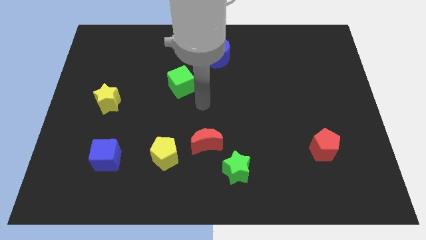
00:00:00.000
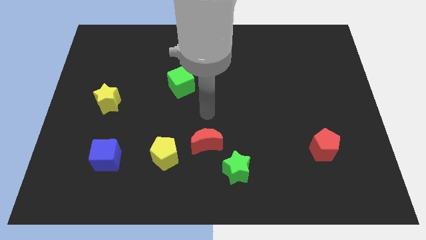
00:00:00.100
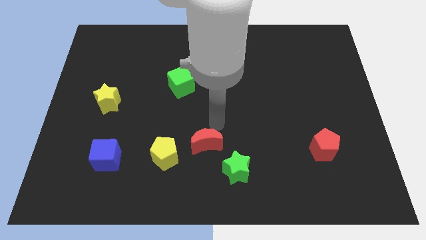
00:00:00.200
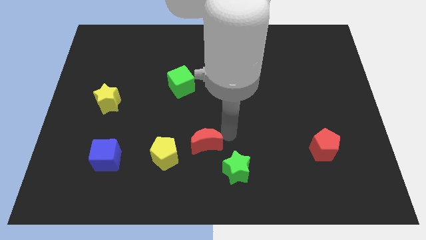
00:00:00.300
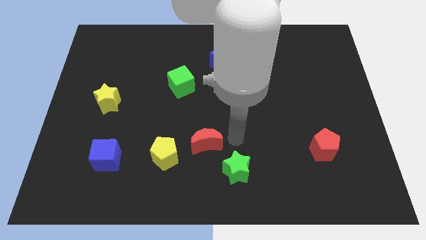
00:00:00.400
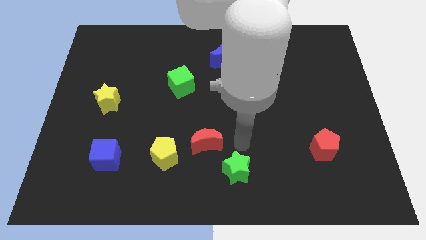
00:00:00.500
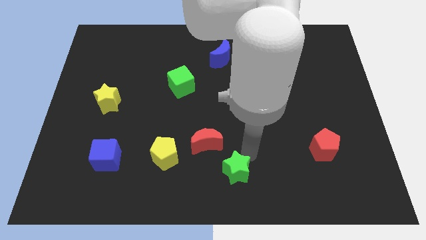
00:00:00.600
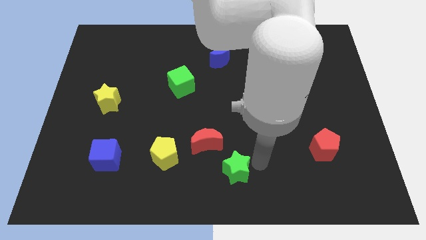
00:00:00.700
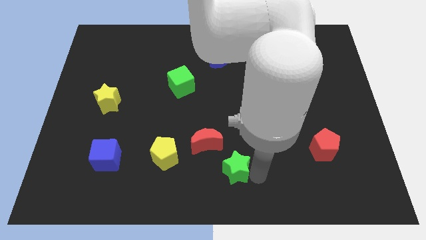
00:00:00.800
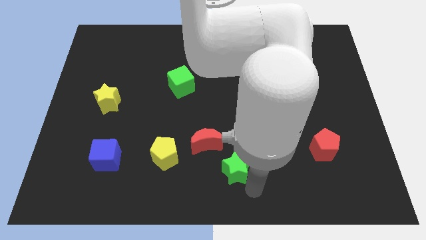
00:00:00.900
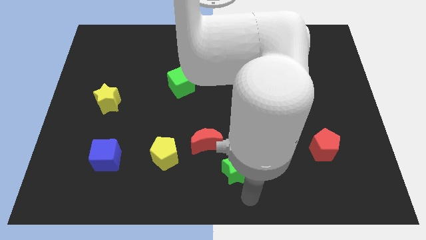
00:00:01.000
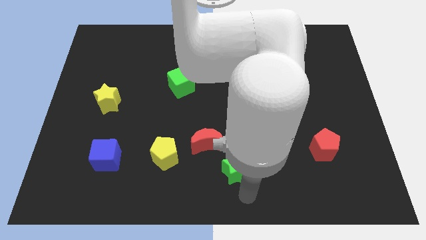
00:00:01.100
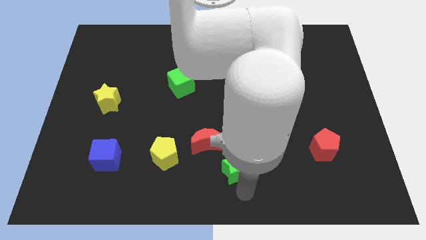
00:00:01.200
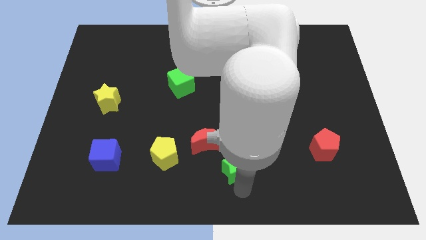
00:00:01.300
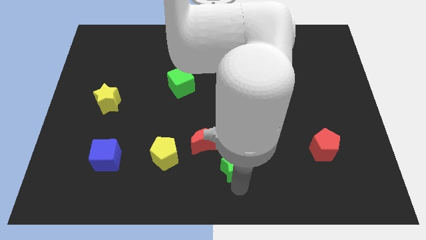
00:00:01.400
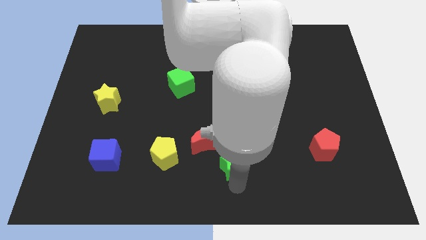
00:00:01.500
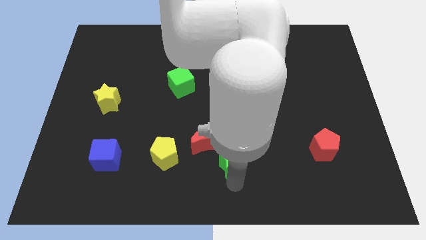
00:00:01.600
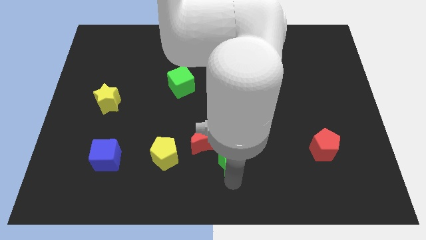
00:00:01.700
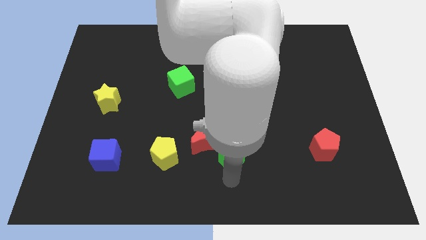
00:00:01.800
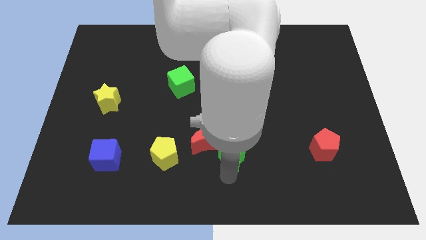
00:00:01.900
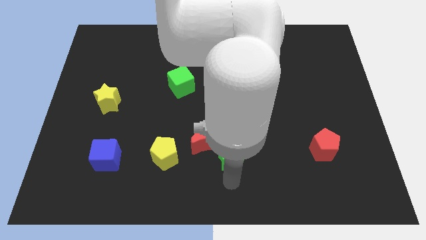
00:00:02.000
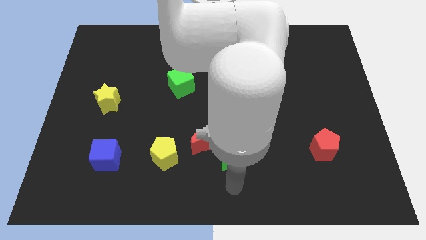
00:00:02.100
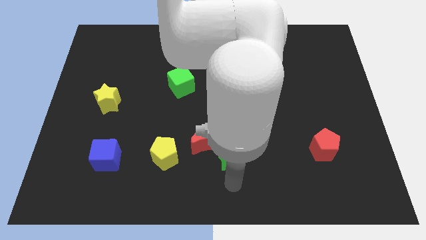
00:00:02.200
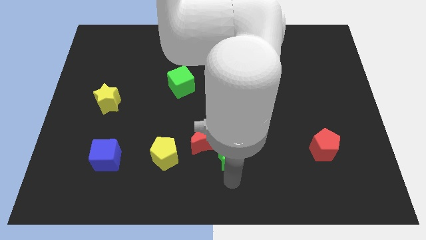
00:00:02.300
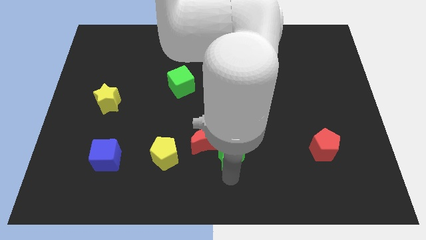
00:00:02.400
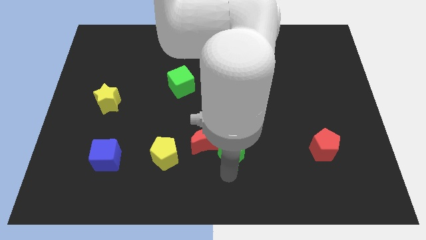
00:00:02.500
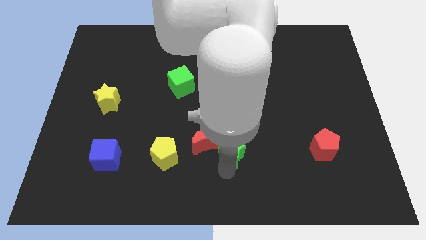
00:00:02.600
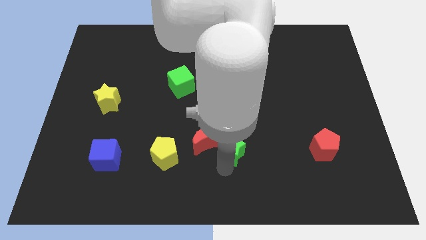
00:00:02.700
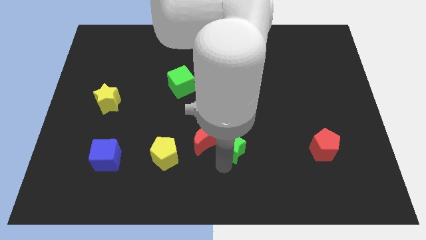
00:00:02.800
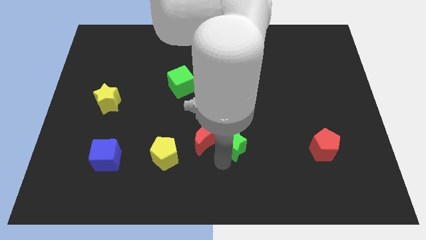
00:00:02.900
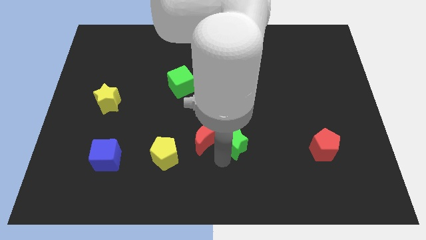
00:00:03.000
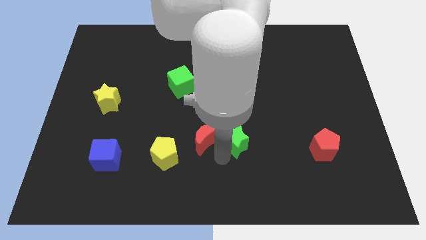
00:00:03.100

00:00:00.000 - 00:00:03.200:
move the green star a little up

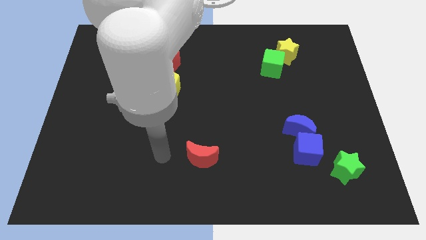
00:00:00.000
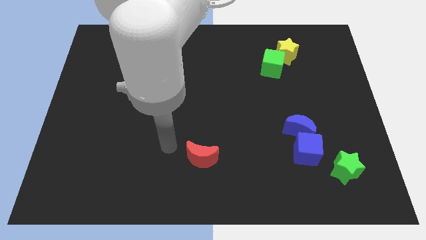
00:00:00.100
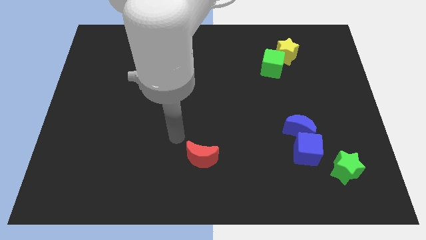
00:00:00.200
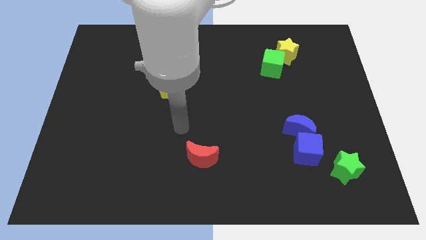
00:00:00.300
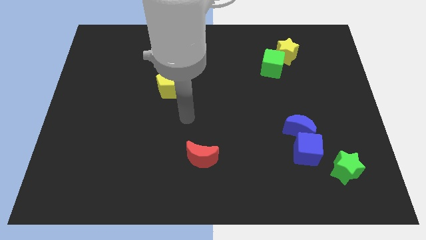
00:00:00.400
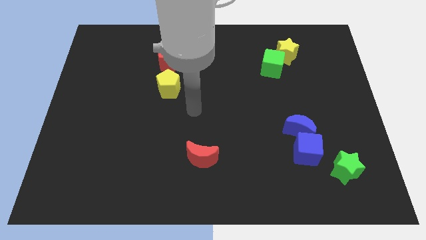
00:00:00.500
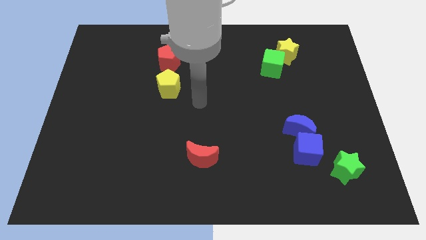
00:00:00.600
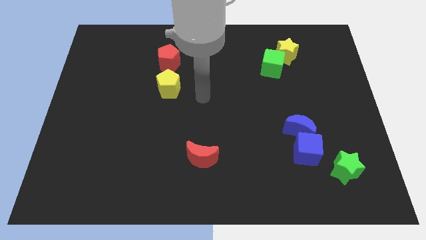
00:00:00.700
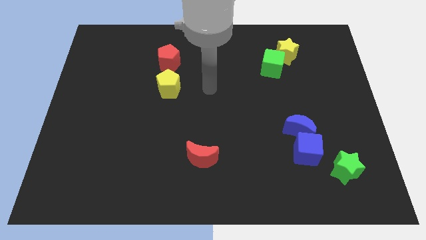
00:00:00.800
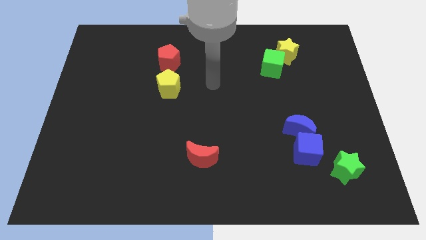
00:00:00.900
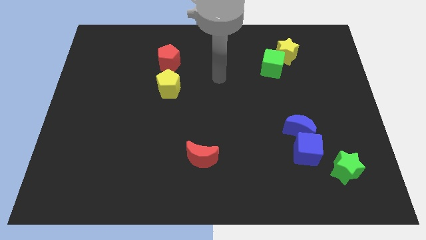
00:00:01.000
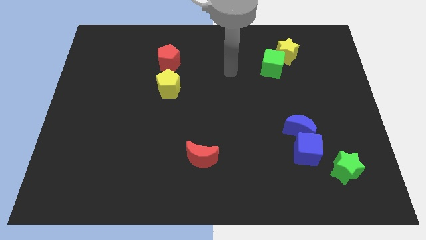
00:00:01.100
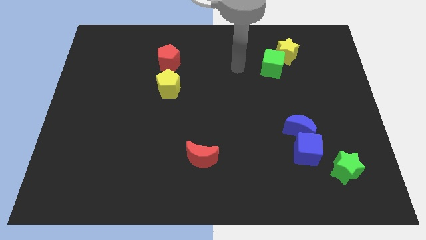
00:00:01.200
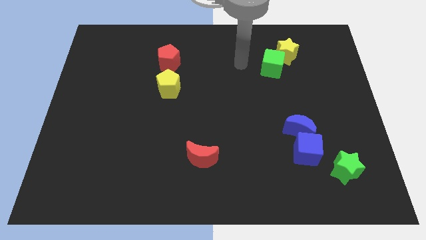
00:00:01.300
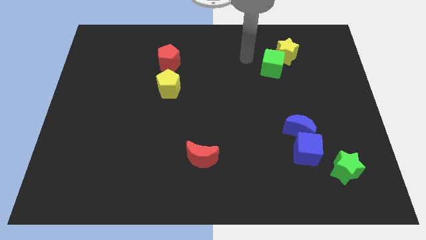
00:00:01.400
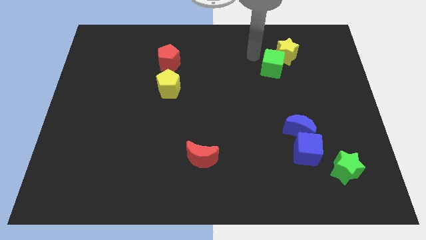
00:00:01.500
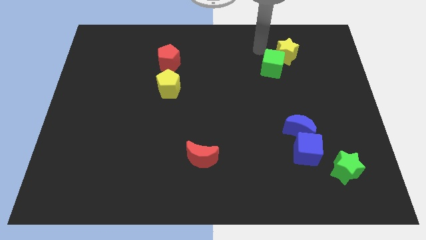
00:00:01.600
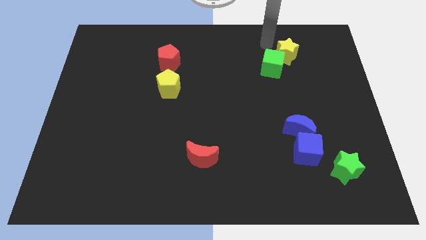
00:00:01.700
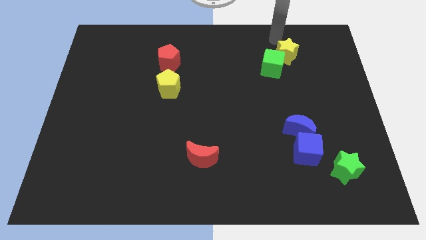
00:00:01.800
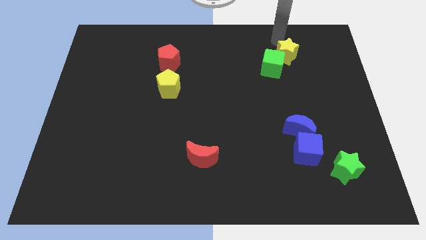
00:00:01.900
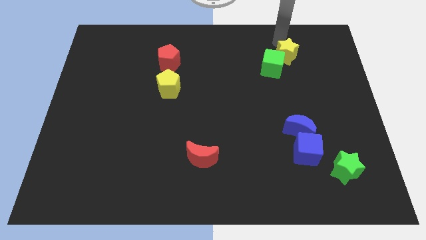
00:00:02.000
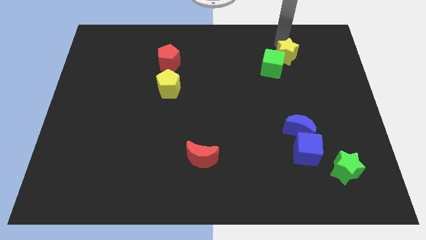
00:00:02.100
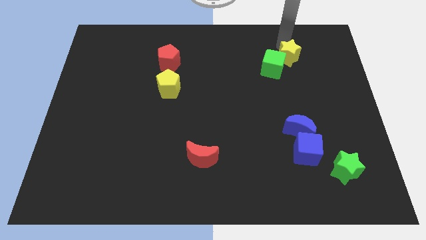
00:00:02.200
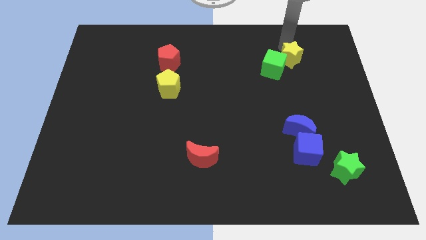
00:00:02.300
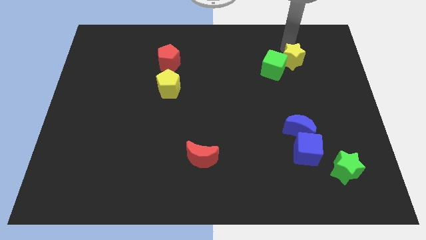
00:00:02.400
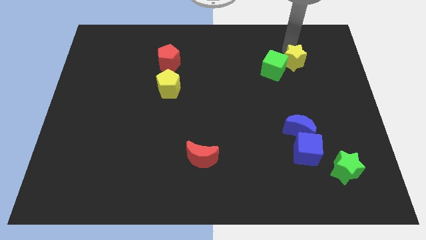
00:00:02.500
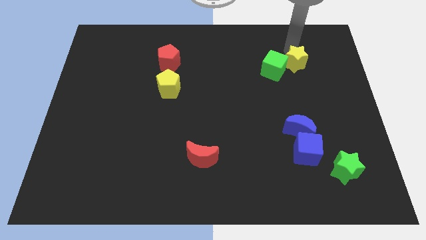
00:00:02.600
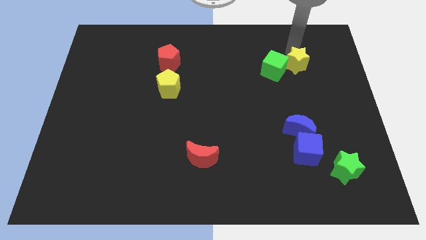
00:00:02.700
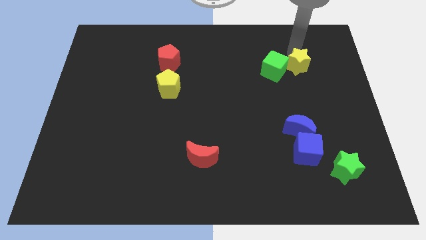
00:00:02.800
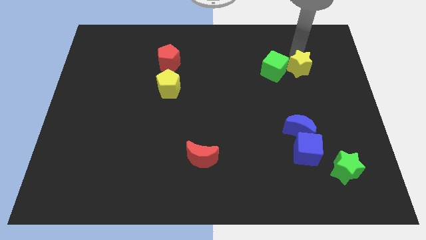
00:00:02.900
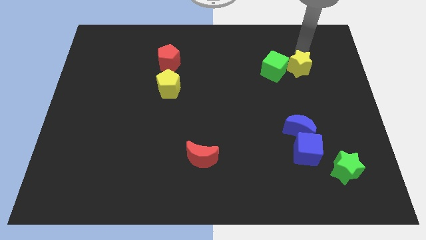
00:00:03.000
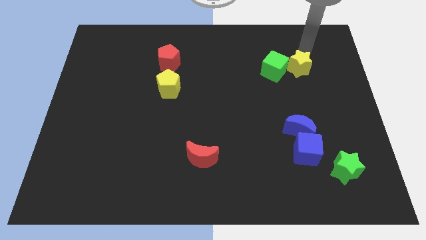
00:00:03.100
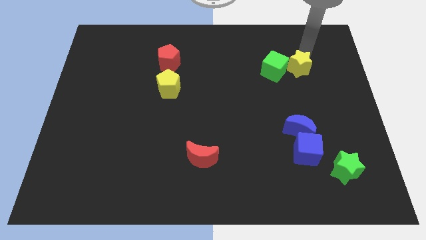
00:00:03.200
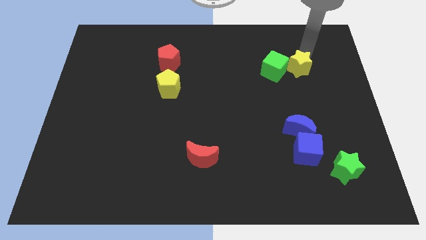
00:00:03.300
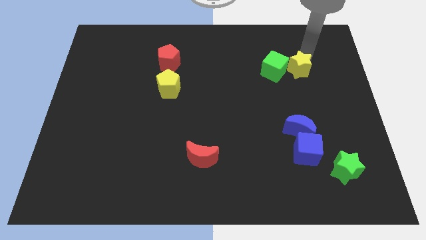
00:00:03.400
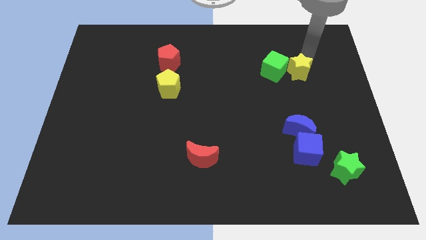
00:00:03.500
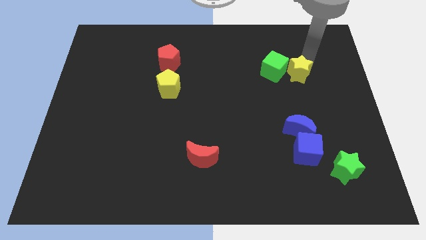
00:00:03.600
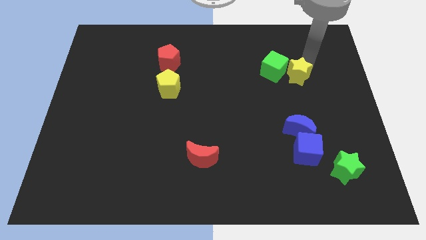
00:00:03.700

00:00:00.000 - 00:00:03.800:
move the yellow star slightly down

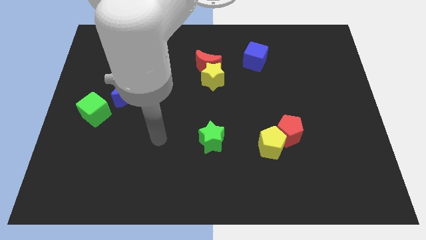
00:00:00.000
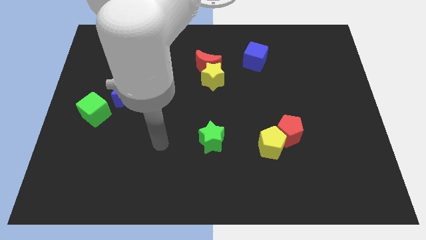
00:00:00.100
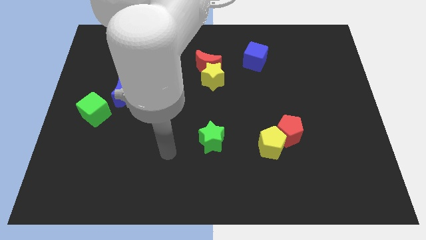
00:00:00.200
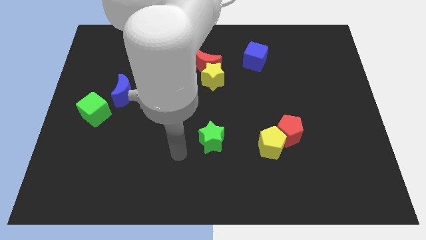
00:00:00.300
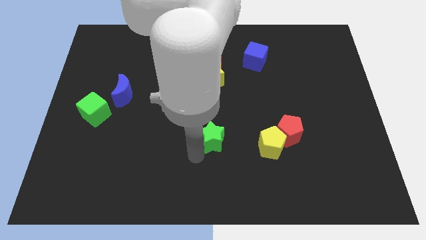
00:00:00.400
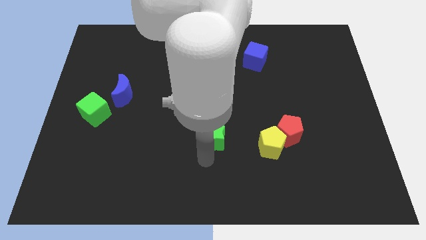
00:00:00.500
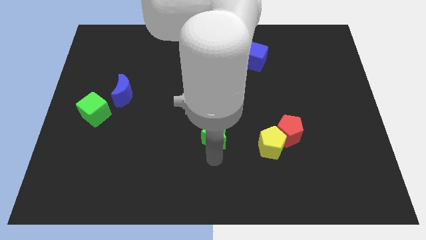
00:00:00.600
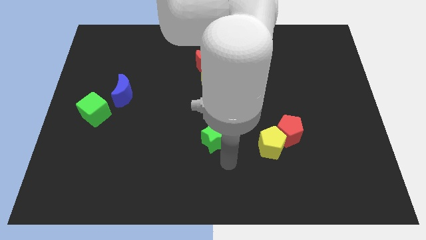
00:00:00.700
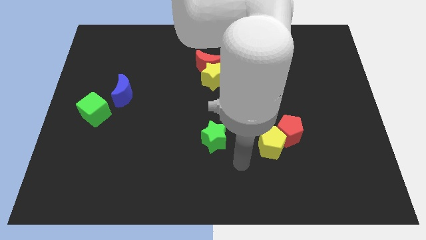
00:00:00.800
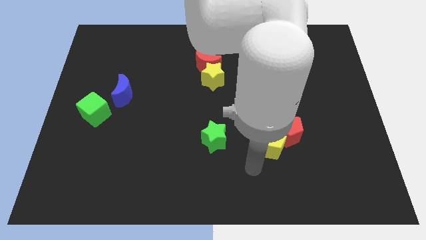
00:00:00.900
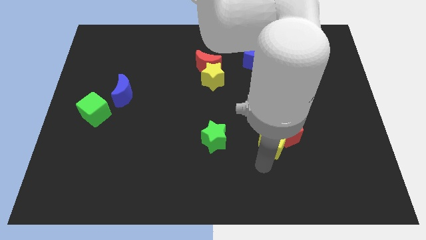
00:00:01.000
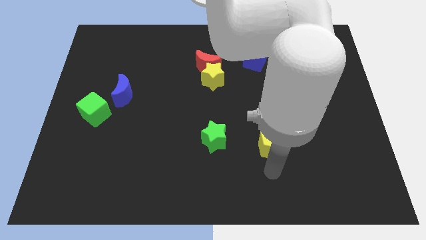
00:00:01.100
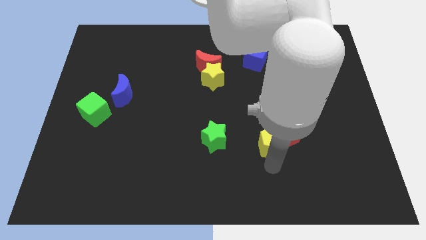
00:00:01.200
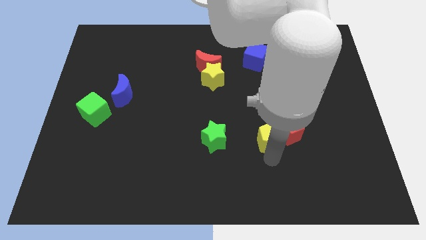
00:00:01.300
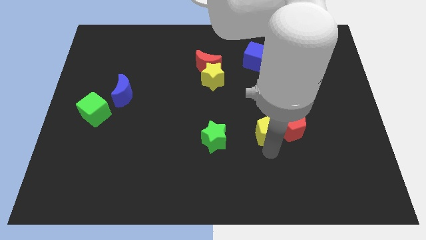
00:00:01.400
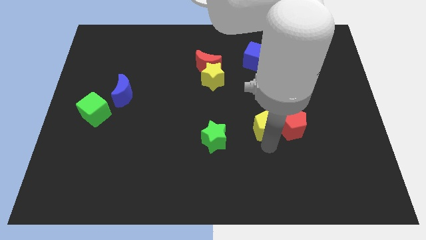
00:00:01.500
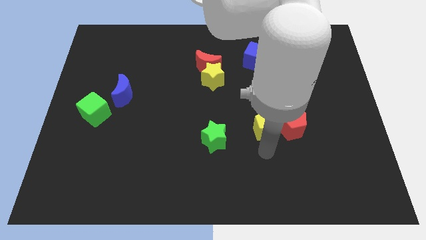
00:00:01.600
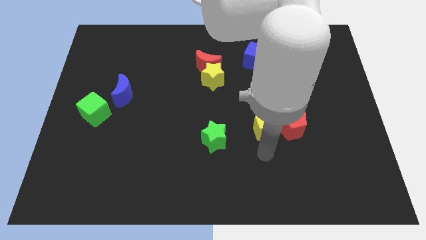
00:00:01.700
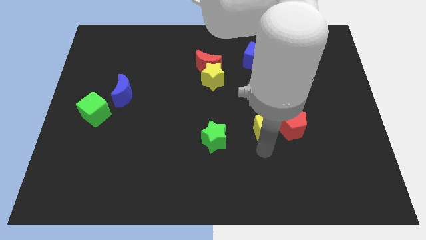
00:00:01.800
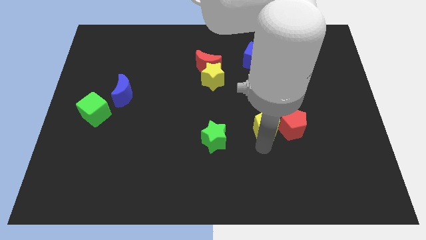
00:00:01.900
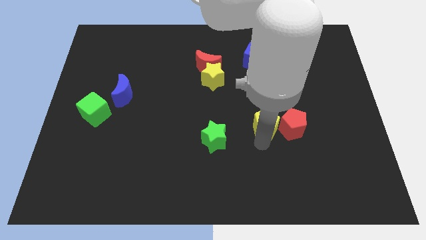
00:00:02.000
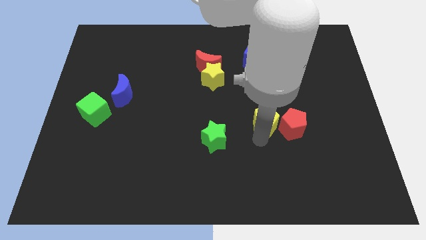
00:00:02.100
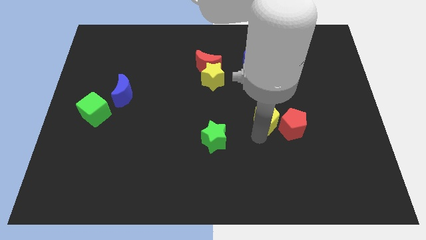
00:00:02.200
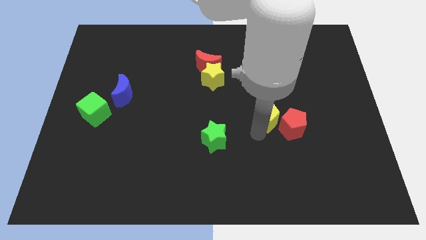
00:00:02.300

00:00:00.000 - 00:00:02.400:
move the yellow pentagon upwards a little bit
